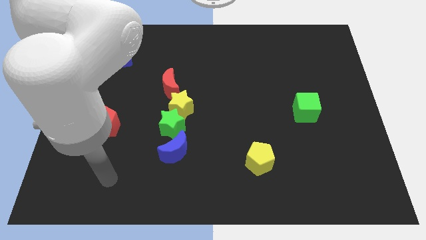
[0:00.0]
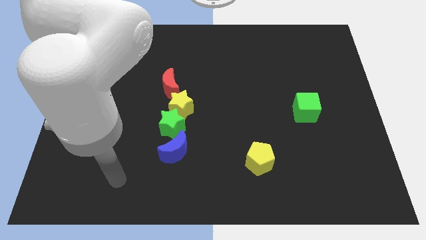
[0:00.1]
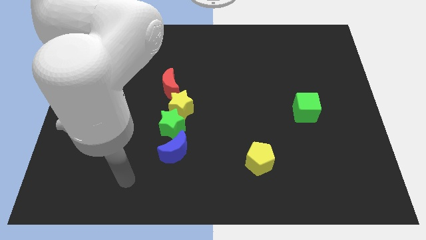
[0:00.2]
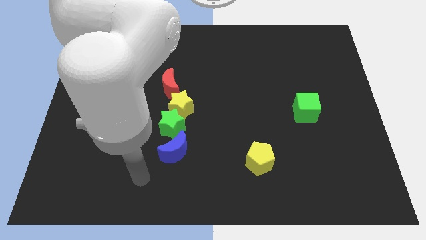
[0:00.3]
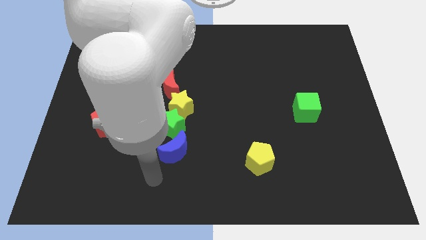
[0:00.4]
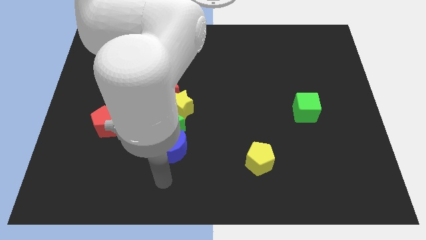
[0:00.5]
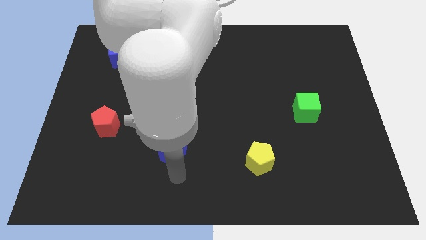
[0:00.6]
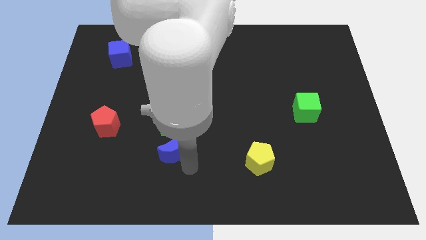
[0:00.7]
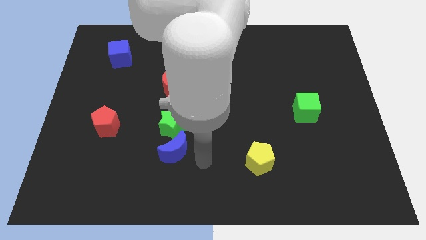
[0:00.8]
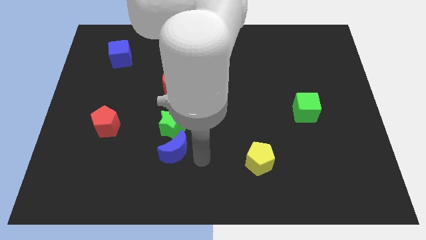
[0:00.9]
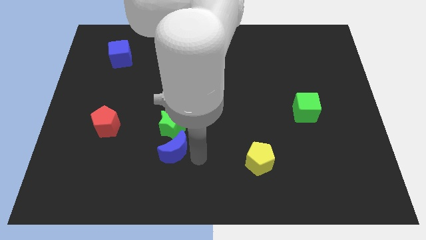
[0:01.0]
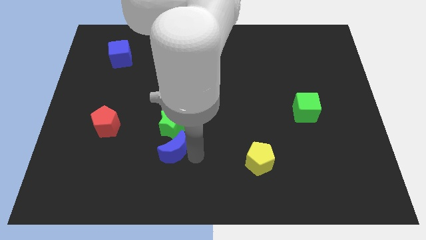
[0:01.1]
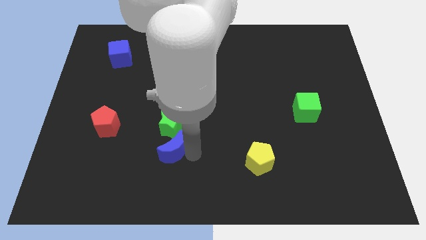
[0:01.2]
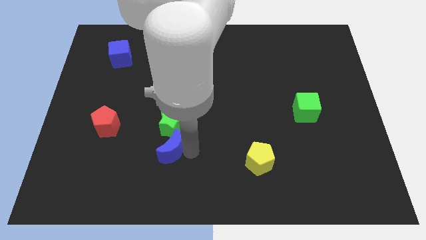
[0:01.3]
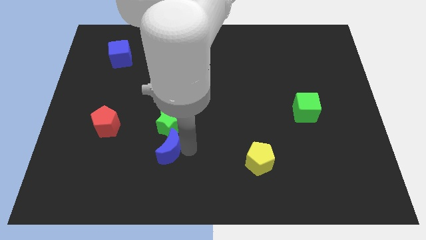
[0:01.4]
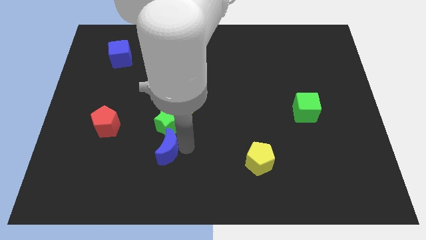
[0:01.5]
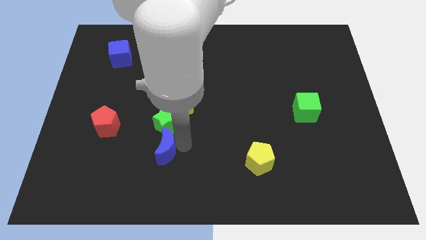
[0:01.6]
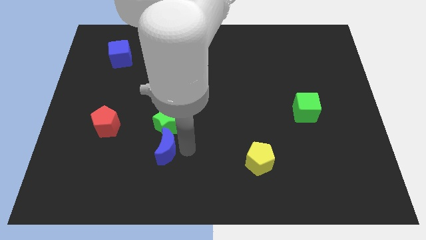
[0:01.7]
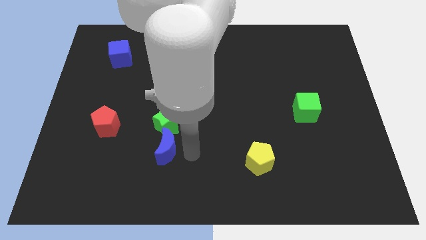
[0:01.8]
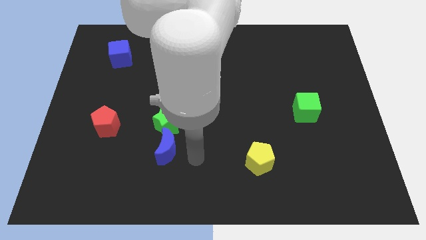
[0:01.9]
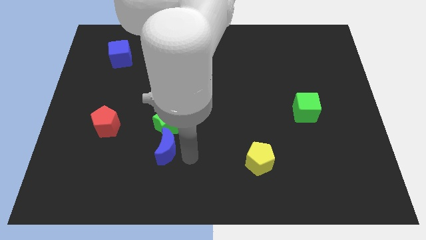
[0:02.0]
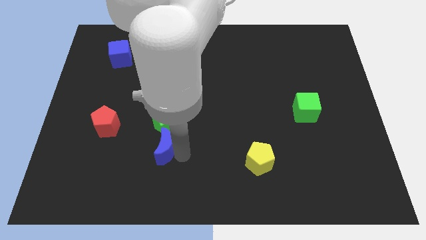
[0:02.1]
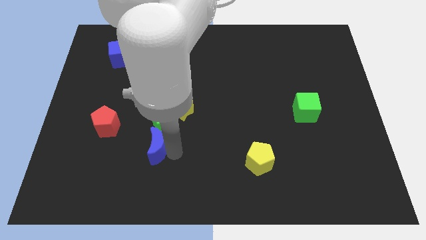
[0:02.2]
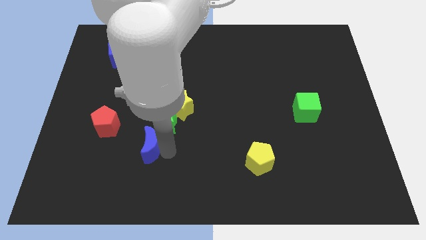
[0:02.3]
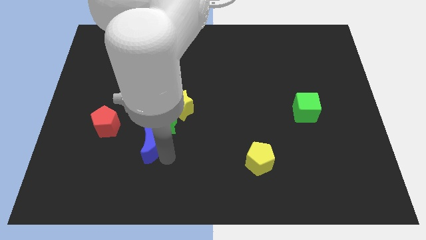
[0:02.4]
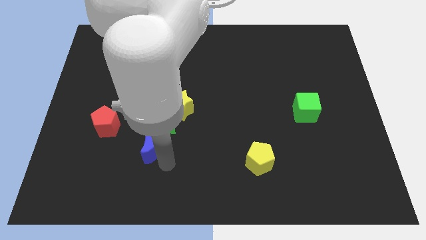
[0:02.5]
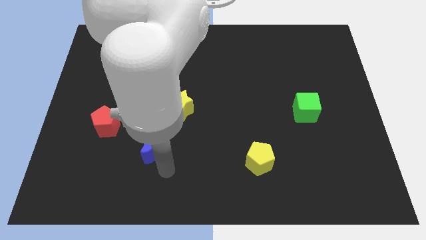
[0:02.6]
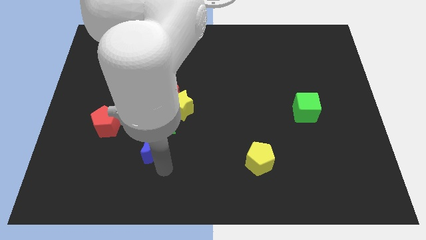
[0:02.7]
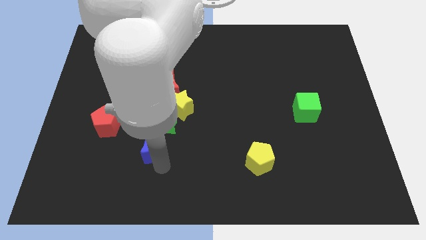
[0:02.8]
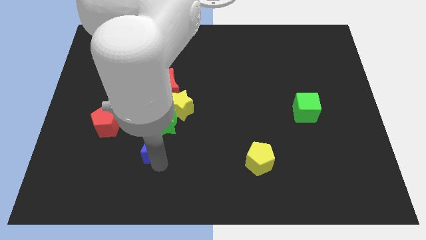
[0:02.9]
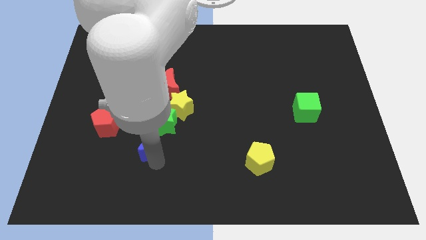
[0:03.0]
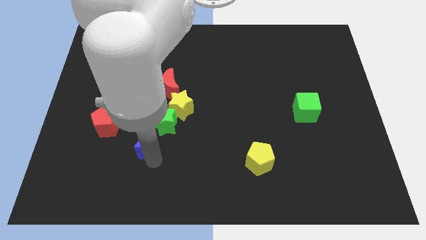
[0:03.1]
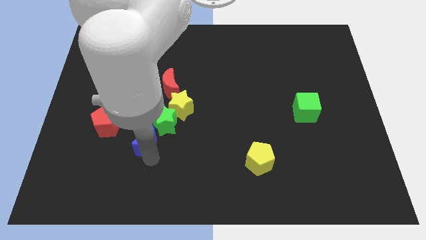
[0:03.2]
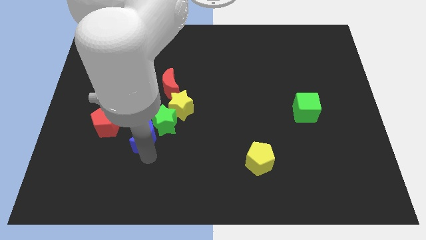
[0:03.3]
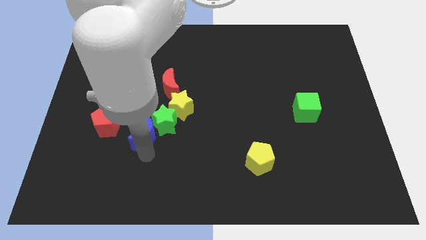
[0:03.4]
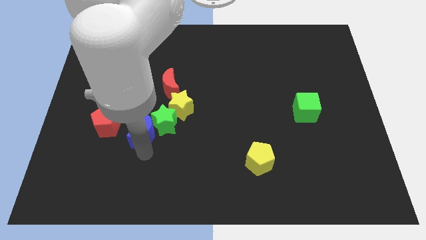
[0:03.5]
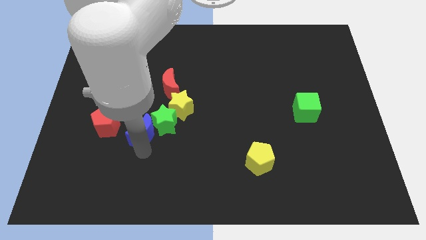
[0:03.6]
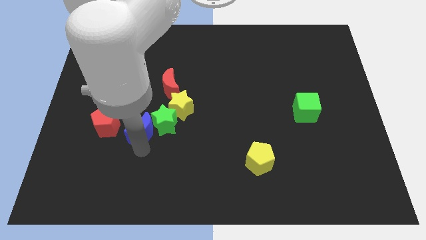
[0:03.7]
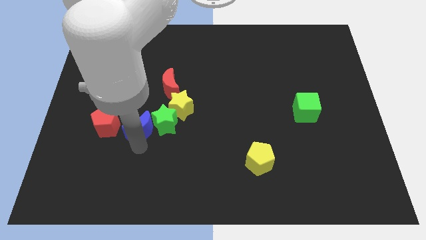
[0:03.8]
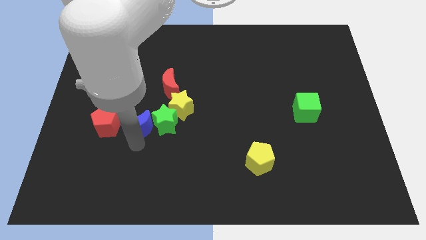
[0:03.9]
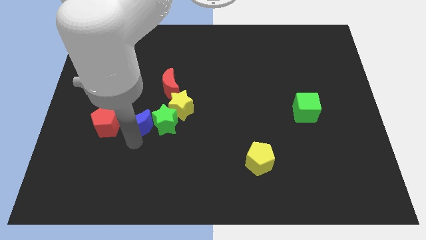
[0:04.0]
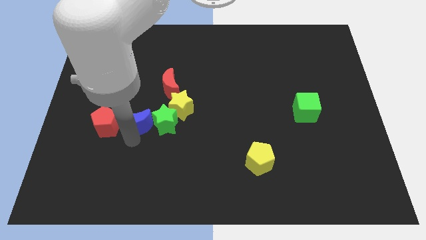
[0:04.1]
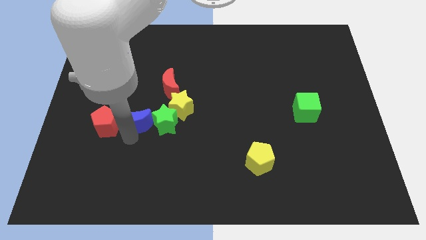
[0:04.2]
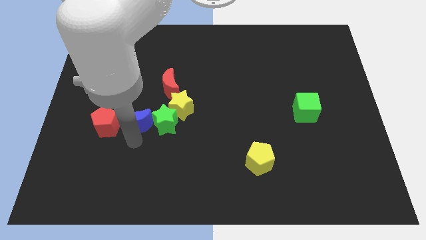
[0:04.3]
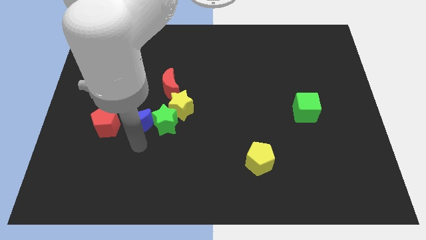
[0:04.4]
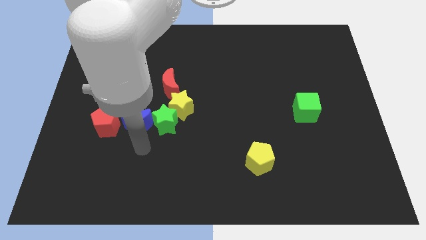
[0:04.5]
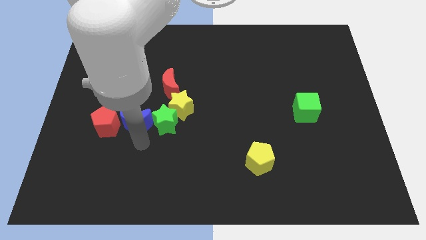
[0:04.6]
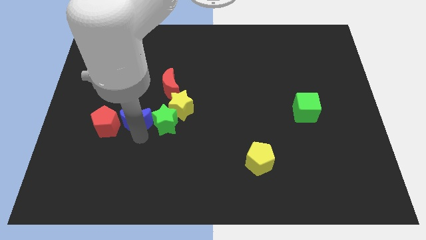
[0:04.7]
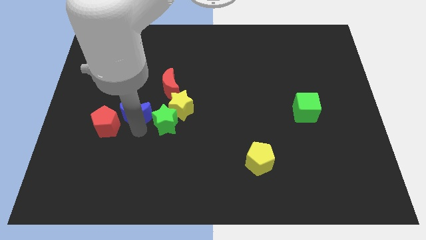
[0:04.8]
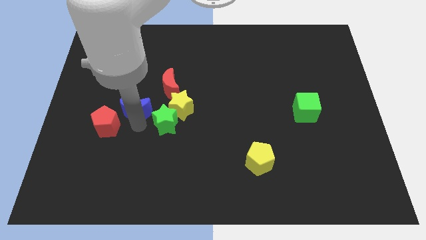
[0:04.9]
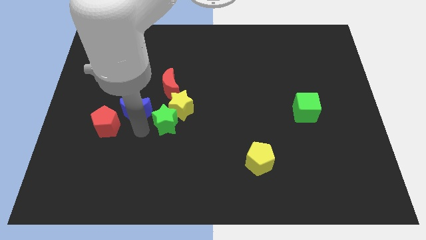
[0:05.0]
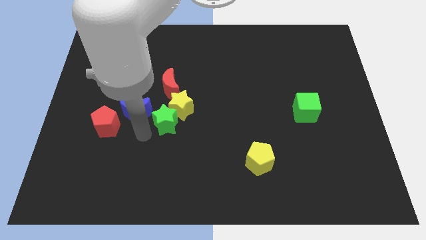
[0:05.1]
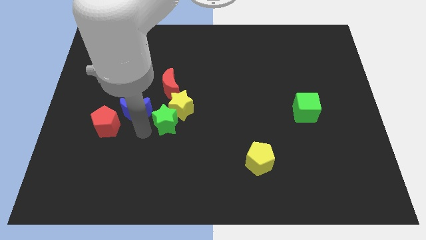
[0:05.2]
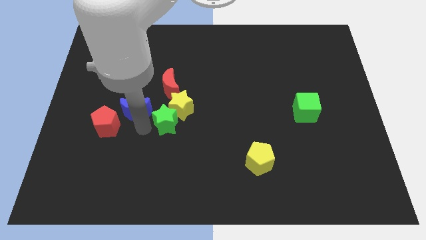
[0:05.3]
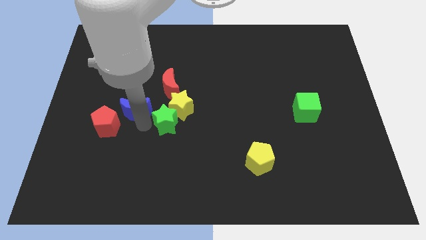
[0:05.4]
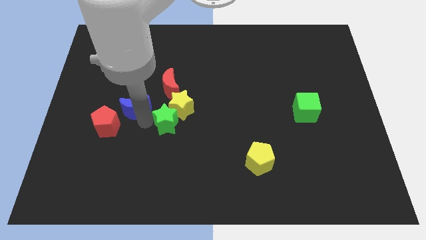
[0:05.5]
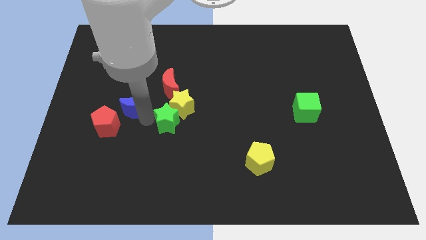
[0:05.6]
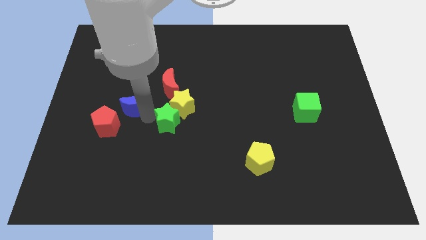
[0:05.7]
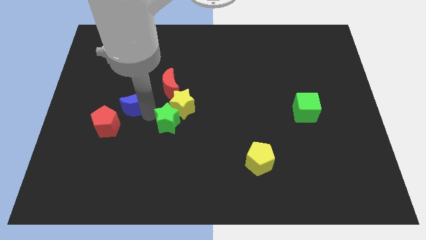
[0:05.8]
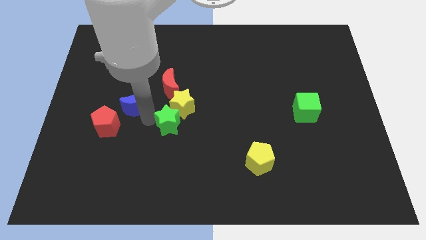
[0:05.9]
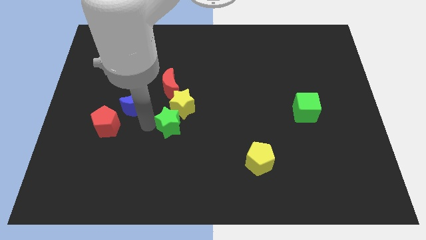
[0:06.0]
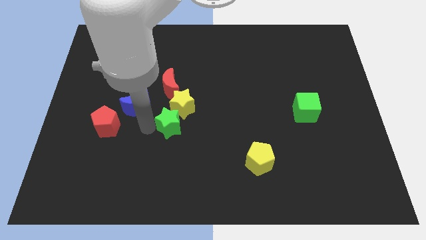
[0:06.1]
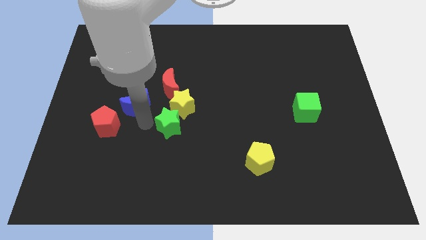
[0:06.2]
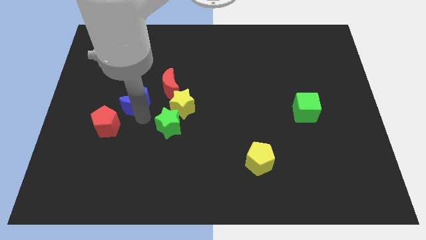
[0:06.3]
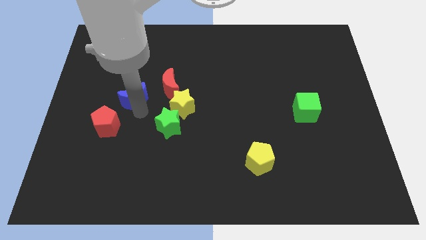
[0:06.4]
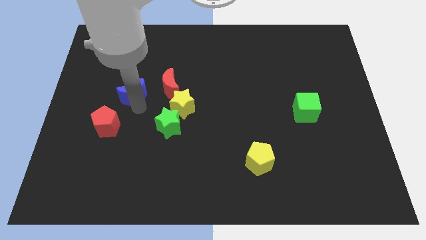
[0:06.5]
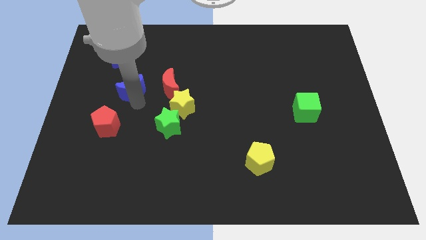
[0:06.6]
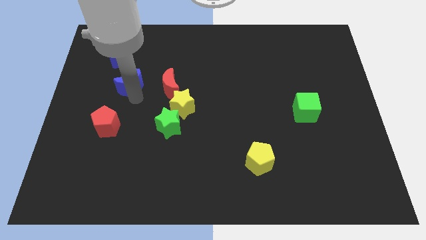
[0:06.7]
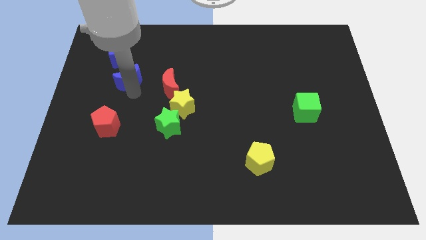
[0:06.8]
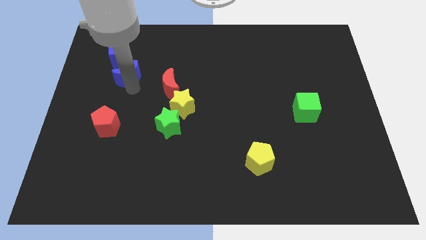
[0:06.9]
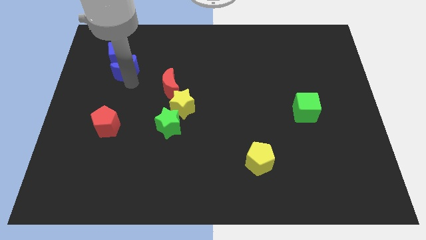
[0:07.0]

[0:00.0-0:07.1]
put the blue moon towards the blue cube
